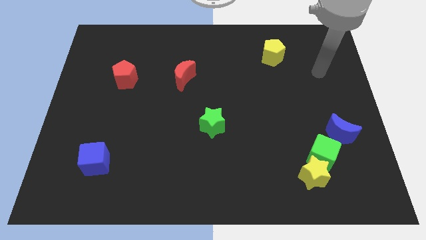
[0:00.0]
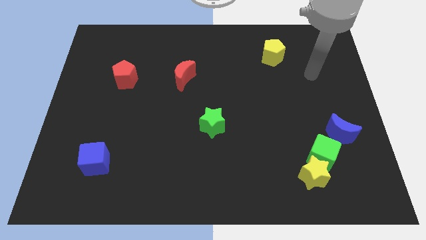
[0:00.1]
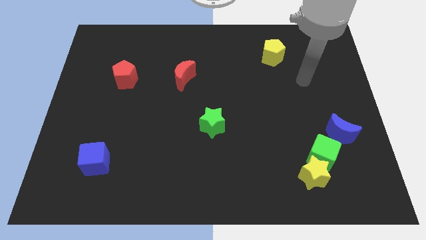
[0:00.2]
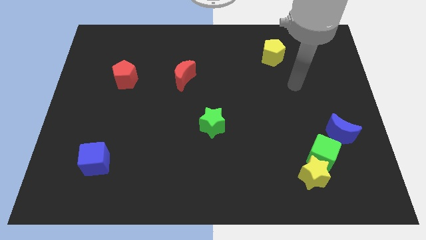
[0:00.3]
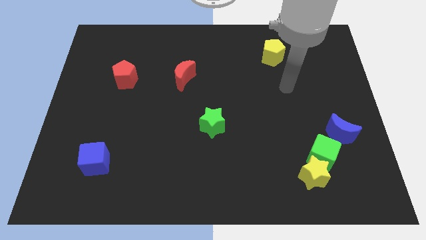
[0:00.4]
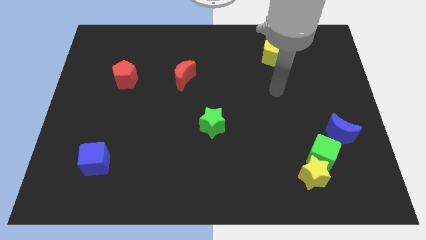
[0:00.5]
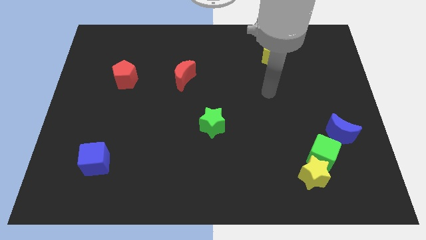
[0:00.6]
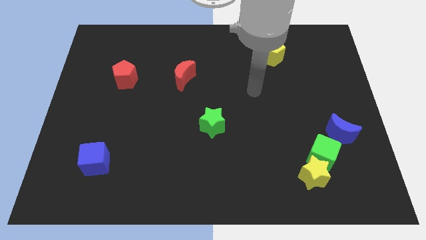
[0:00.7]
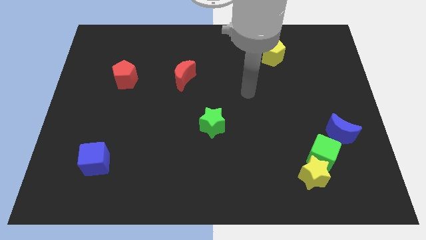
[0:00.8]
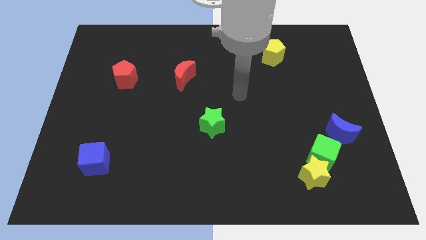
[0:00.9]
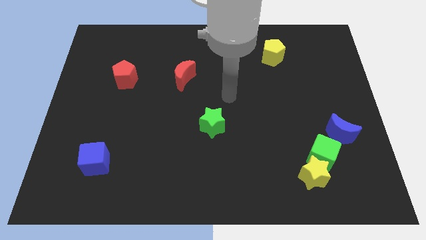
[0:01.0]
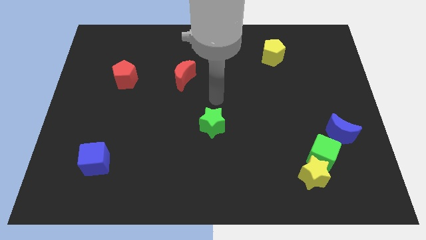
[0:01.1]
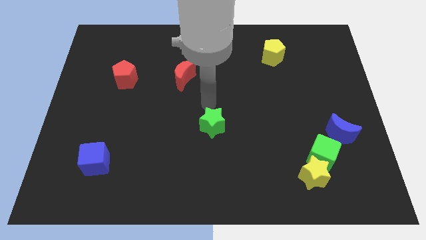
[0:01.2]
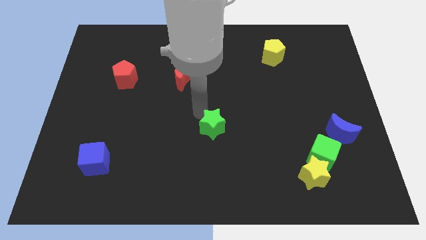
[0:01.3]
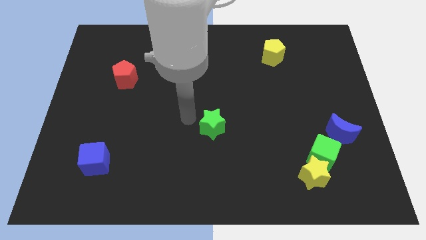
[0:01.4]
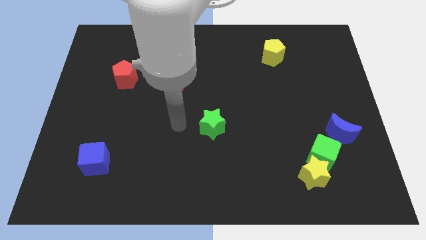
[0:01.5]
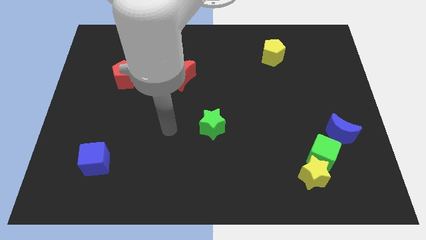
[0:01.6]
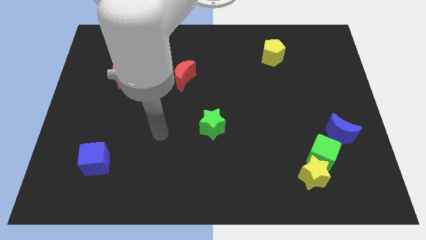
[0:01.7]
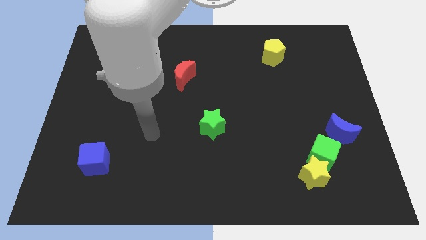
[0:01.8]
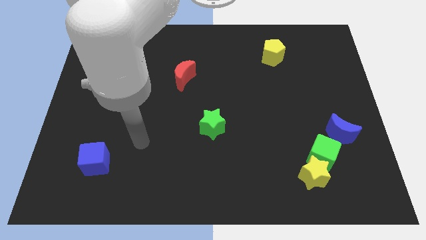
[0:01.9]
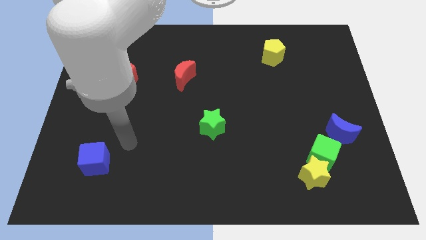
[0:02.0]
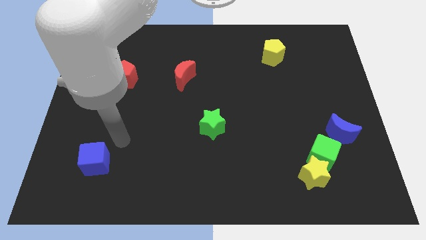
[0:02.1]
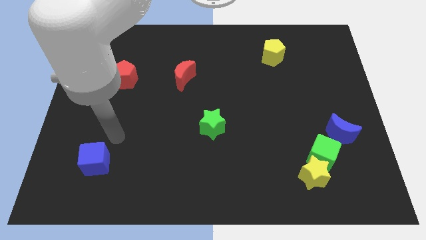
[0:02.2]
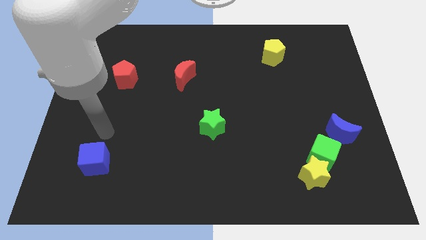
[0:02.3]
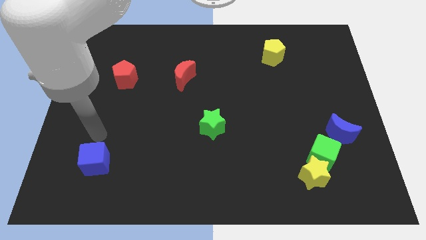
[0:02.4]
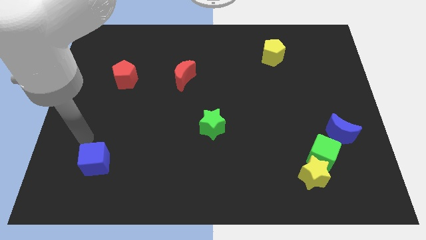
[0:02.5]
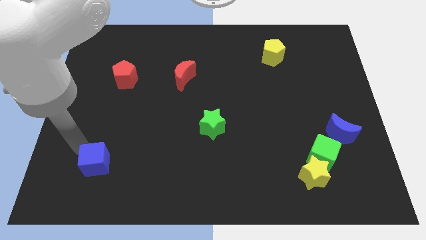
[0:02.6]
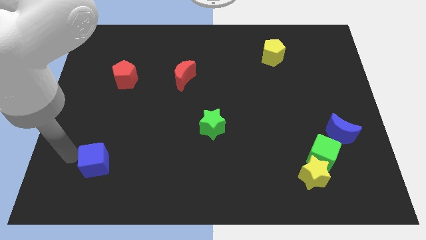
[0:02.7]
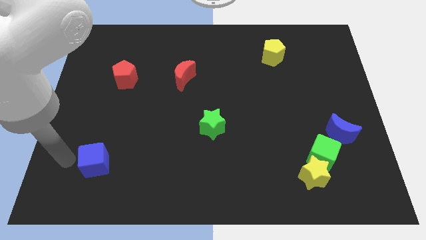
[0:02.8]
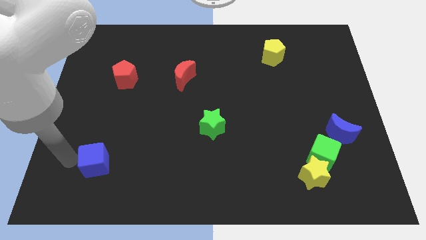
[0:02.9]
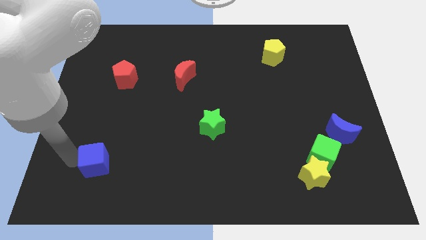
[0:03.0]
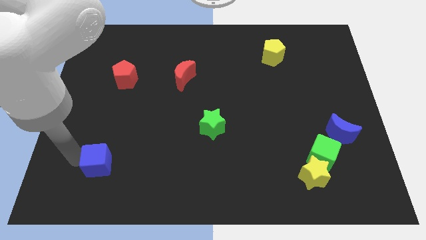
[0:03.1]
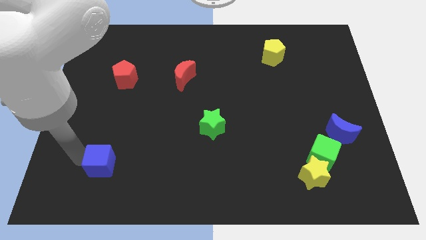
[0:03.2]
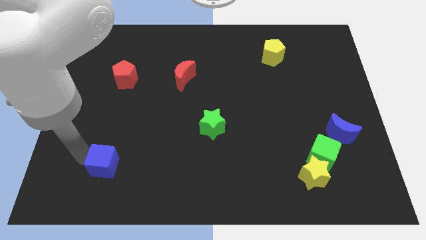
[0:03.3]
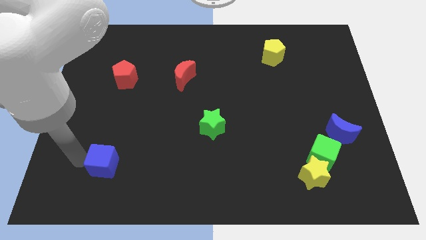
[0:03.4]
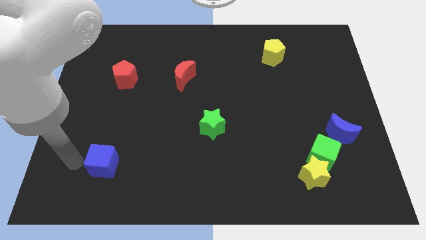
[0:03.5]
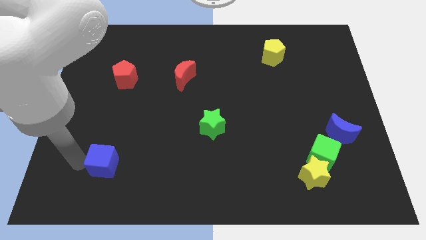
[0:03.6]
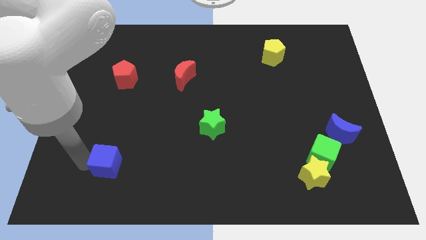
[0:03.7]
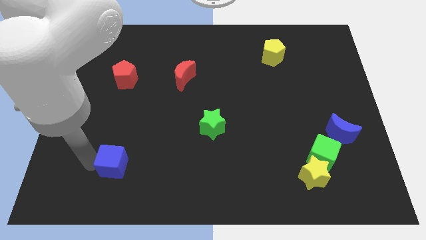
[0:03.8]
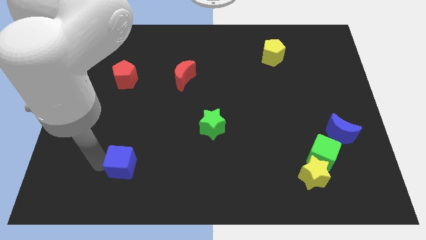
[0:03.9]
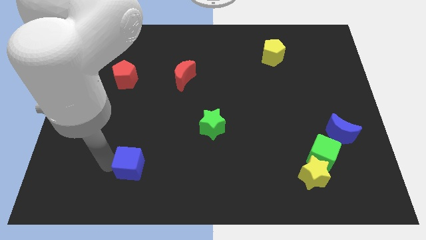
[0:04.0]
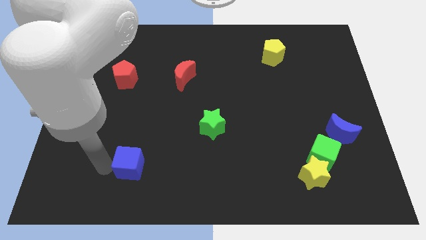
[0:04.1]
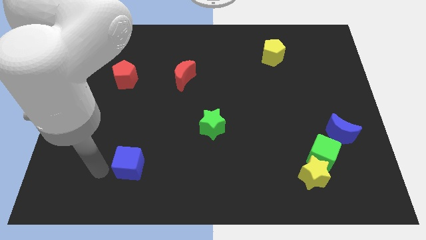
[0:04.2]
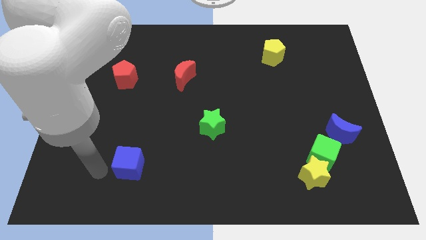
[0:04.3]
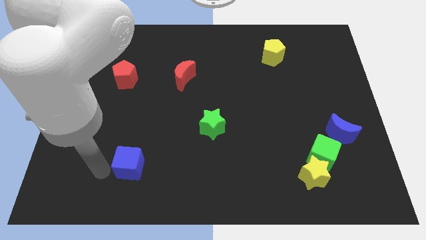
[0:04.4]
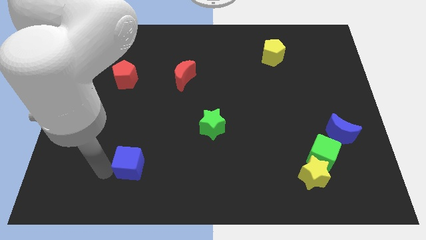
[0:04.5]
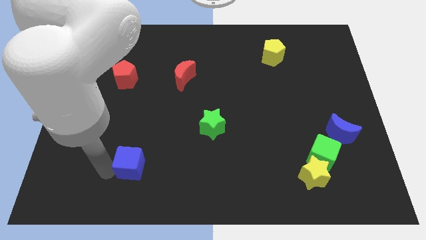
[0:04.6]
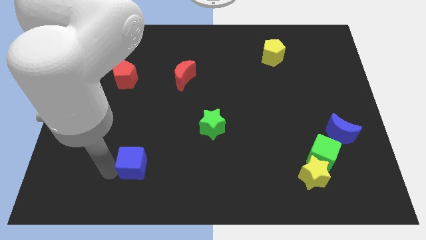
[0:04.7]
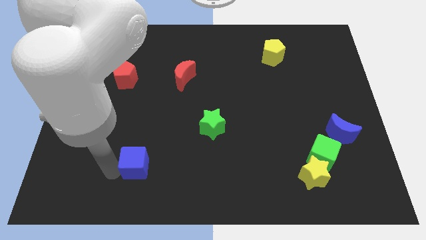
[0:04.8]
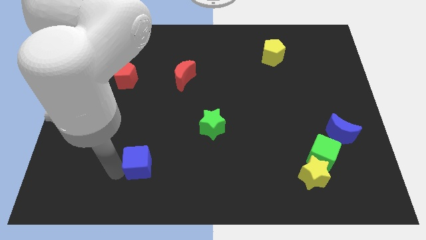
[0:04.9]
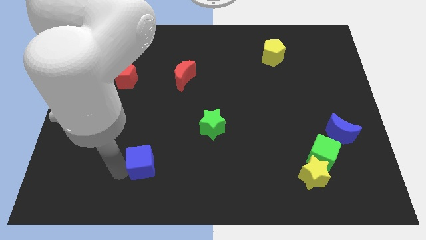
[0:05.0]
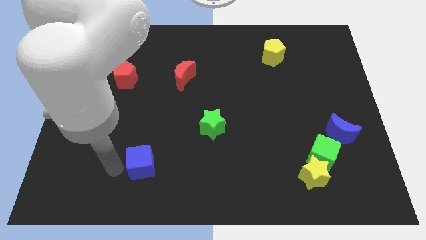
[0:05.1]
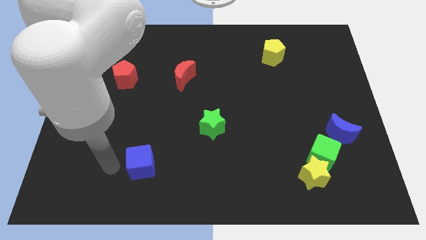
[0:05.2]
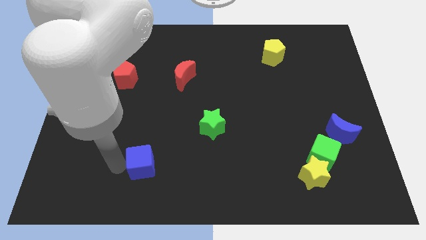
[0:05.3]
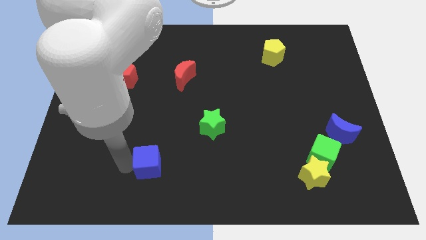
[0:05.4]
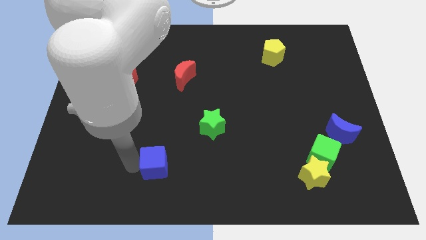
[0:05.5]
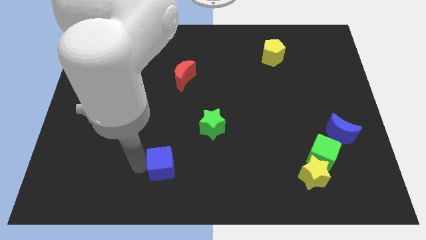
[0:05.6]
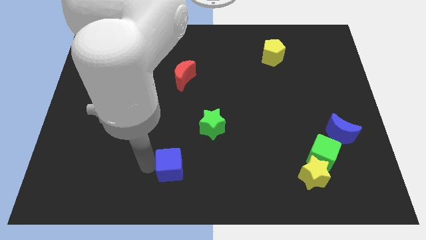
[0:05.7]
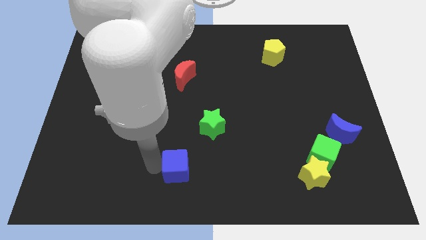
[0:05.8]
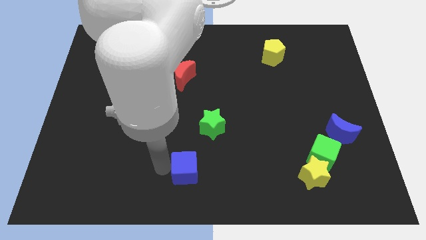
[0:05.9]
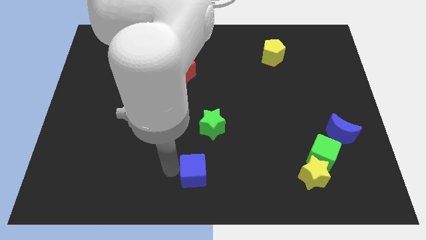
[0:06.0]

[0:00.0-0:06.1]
slide the blue cube to the bottom of the green star

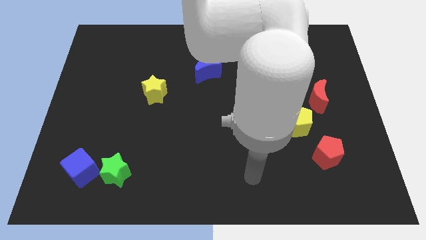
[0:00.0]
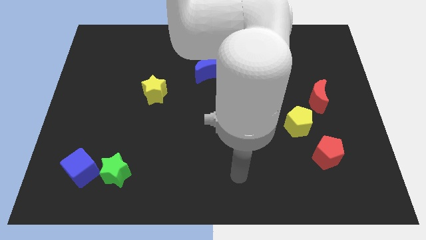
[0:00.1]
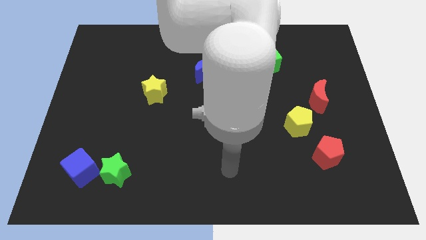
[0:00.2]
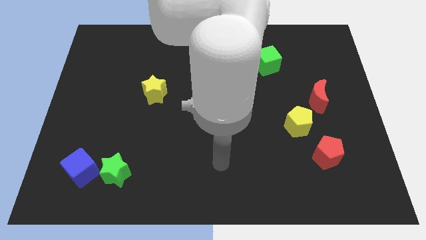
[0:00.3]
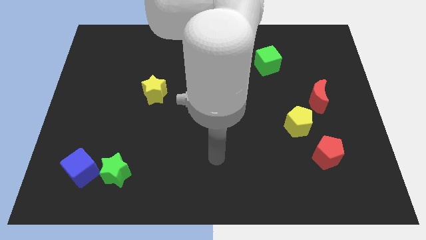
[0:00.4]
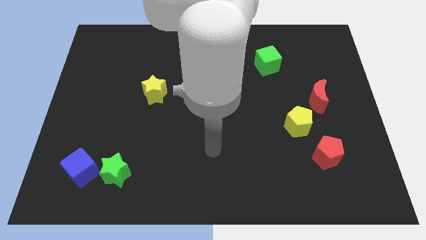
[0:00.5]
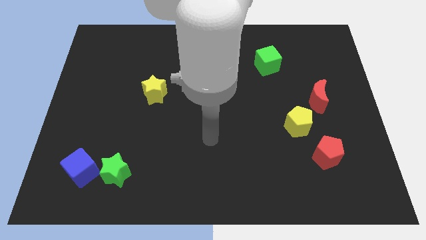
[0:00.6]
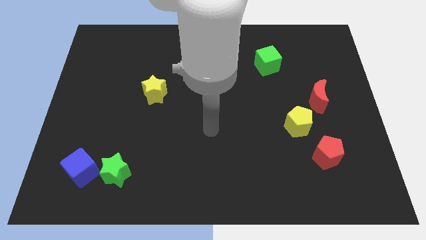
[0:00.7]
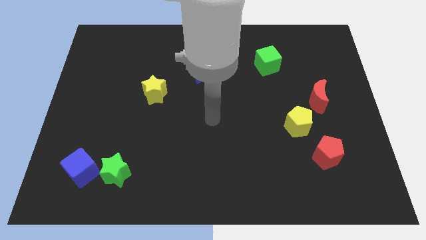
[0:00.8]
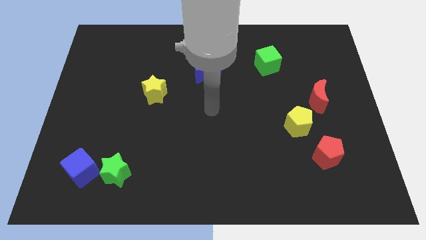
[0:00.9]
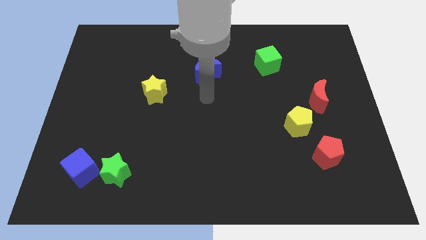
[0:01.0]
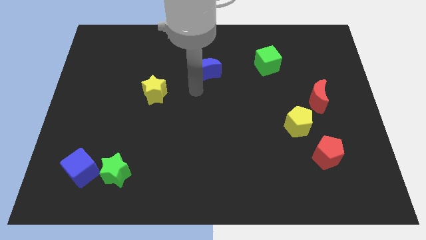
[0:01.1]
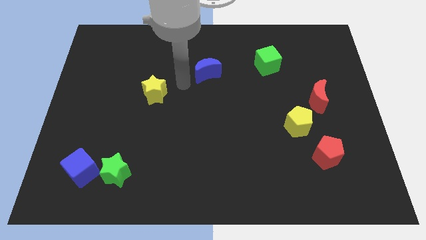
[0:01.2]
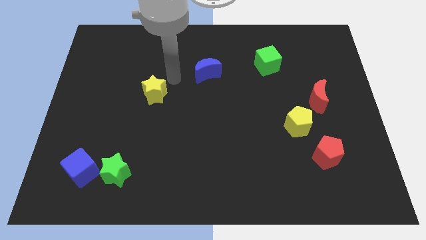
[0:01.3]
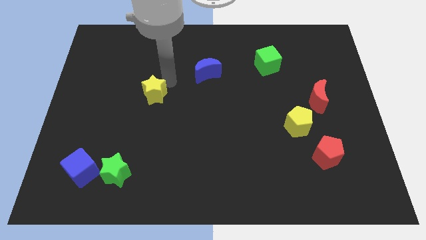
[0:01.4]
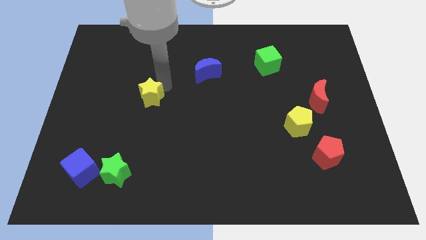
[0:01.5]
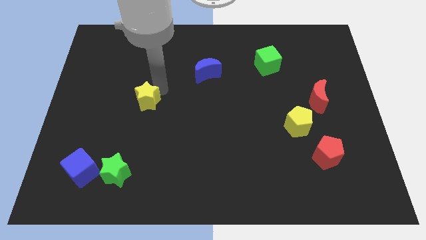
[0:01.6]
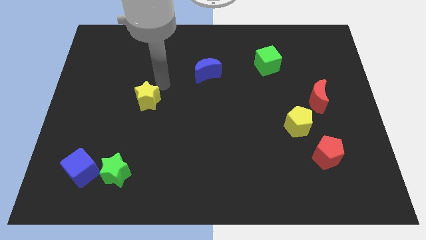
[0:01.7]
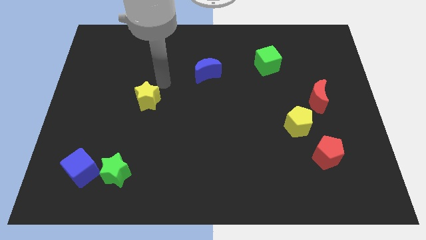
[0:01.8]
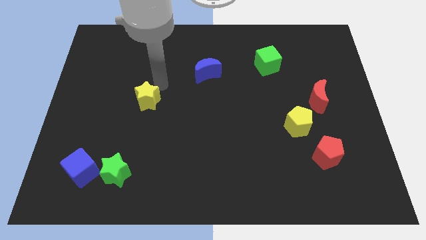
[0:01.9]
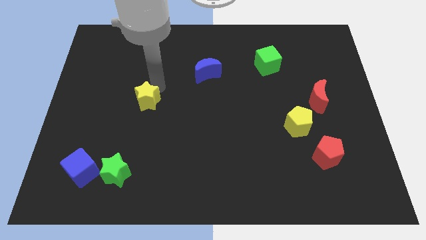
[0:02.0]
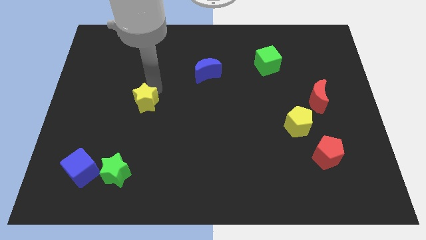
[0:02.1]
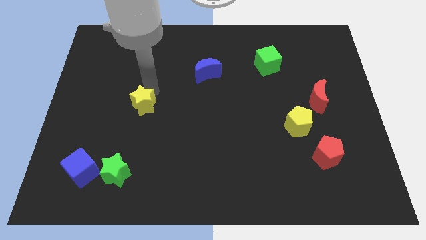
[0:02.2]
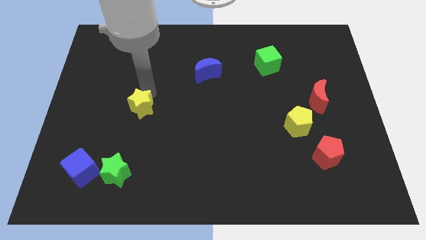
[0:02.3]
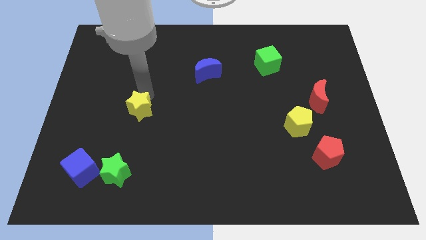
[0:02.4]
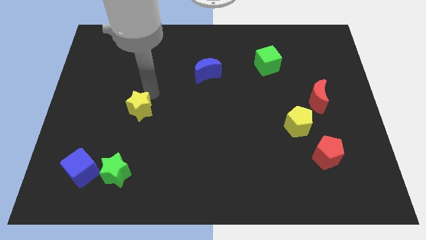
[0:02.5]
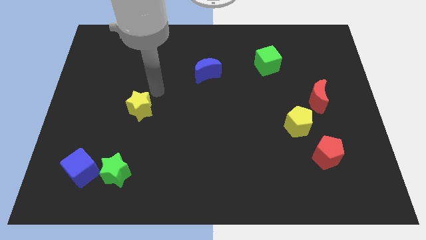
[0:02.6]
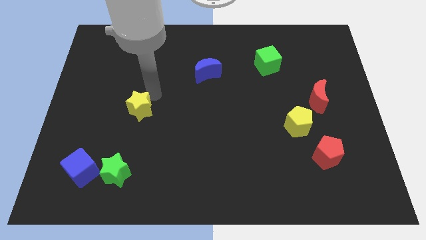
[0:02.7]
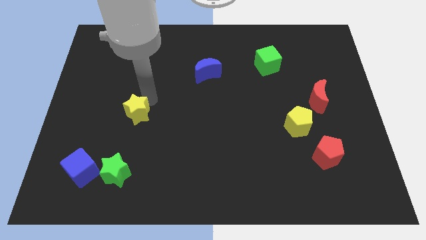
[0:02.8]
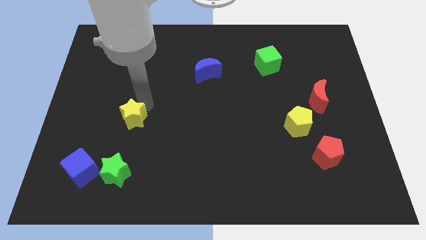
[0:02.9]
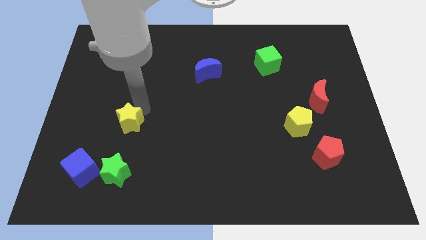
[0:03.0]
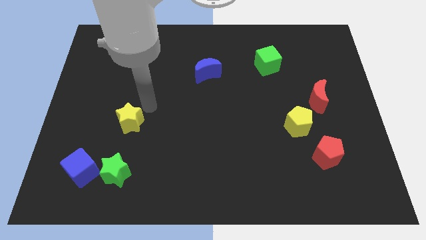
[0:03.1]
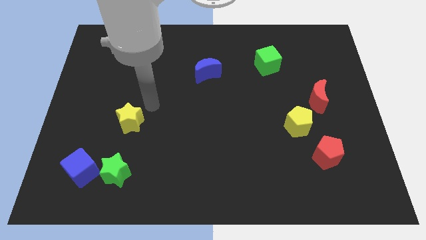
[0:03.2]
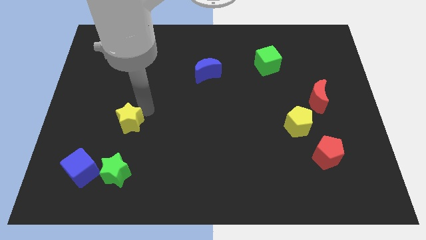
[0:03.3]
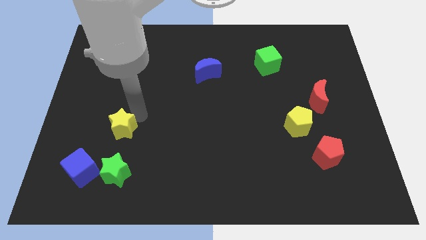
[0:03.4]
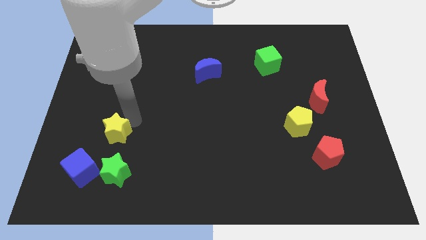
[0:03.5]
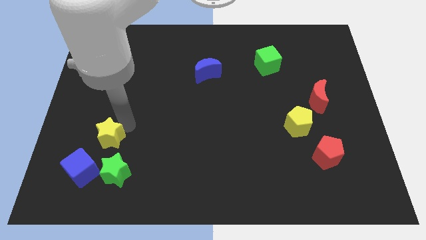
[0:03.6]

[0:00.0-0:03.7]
slide the yellow star diagonally up and to the left of the green star
